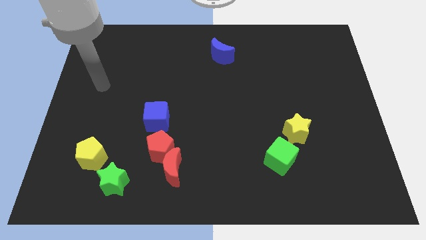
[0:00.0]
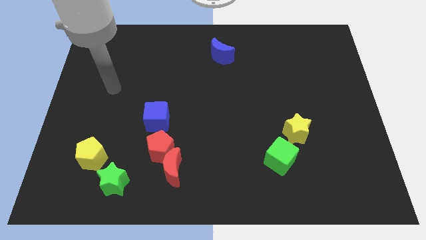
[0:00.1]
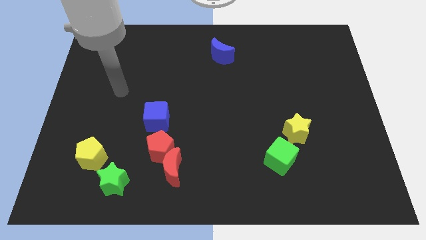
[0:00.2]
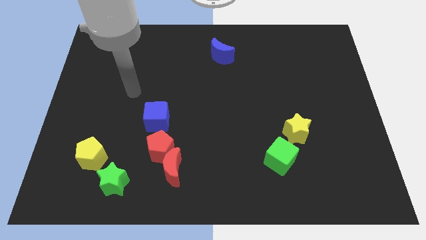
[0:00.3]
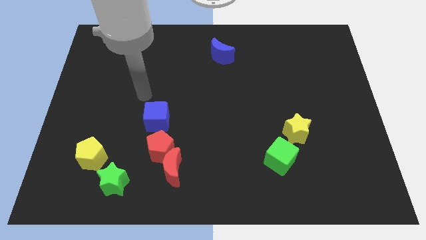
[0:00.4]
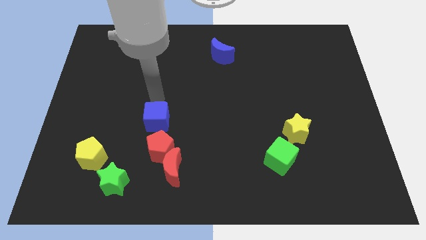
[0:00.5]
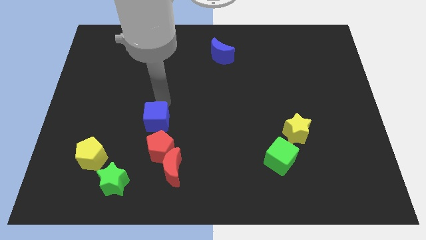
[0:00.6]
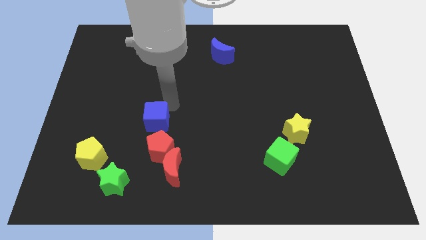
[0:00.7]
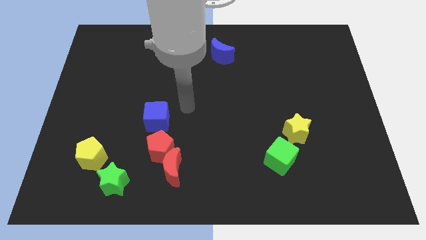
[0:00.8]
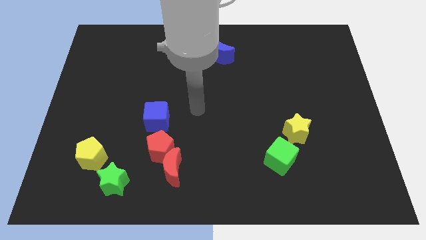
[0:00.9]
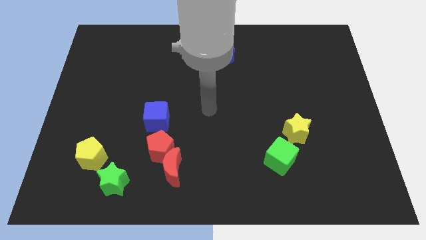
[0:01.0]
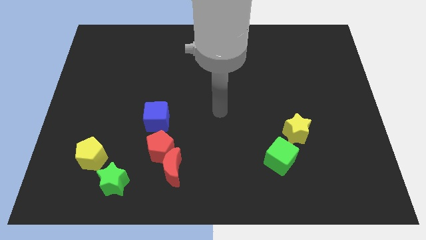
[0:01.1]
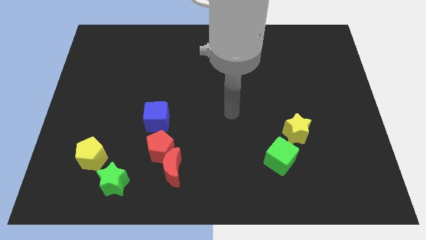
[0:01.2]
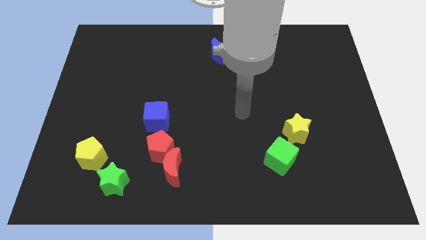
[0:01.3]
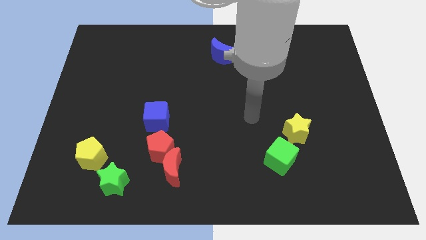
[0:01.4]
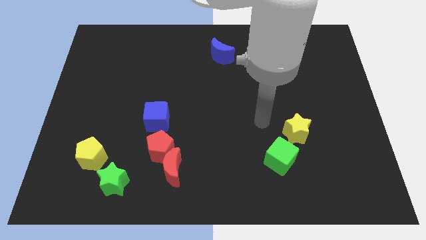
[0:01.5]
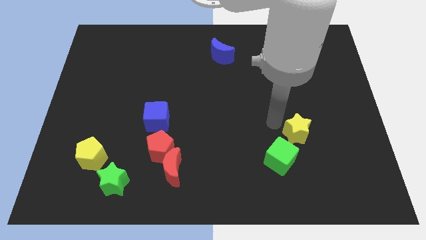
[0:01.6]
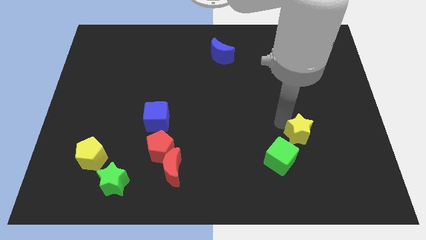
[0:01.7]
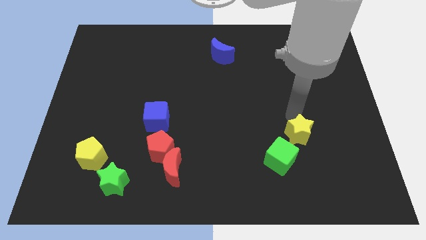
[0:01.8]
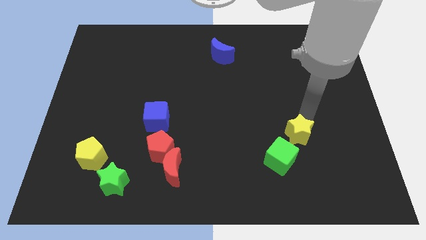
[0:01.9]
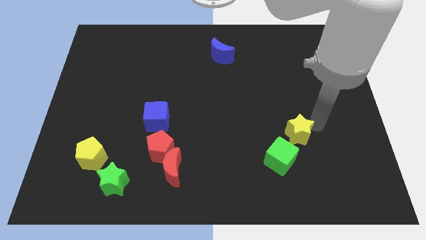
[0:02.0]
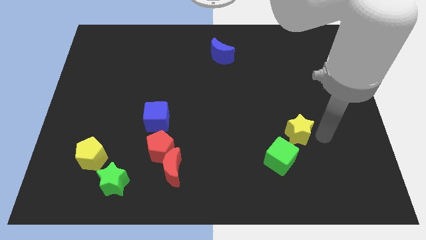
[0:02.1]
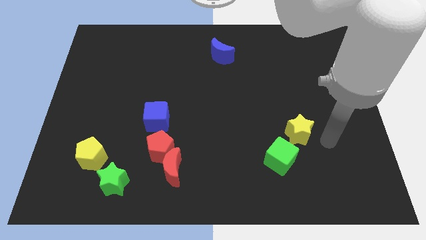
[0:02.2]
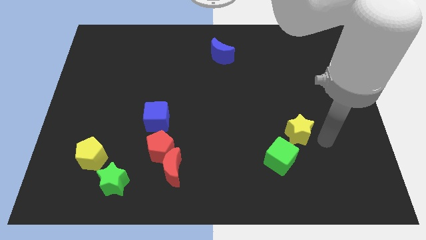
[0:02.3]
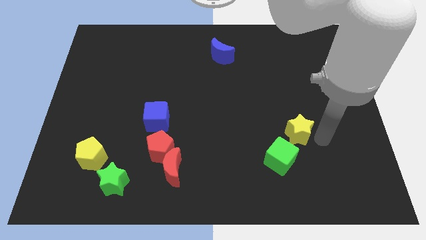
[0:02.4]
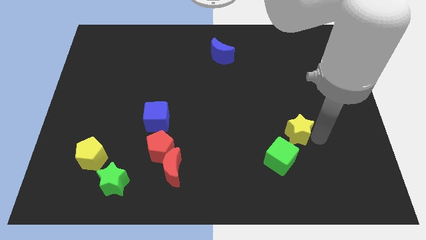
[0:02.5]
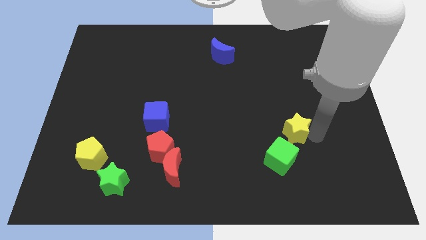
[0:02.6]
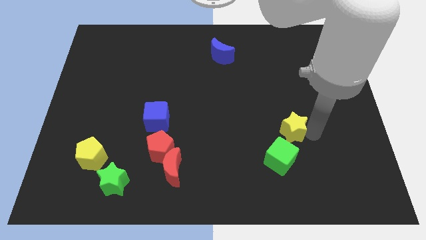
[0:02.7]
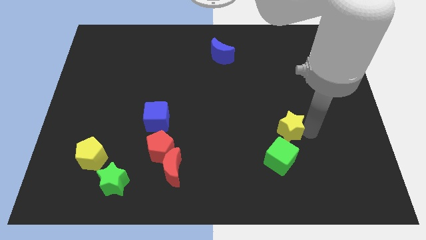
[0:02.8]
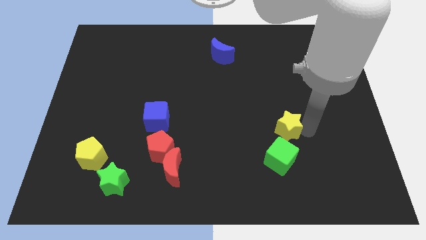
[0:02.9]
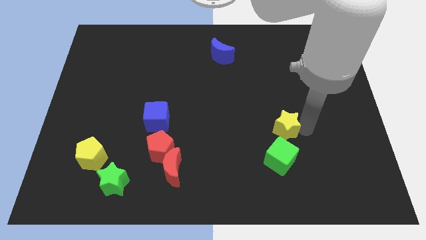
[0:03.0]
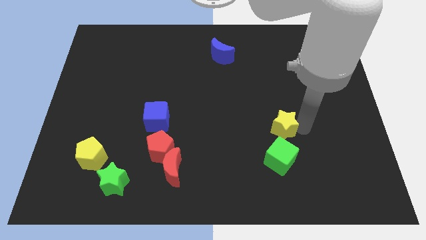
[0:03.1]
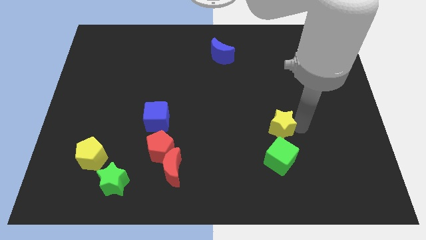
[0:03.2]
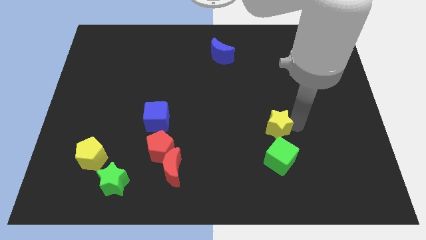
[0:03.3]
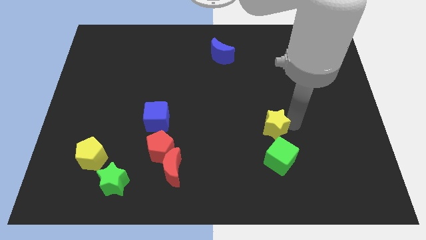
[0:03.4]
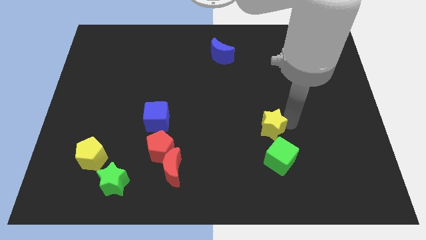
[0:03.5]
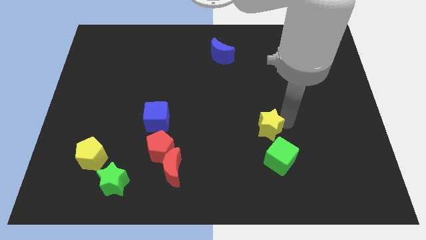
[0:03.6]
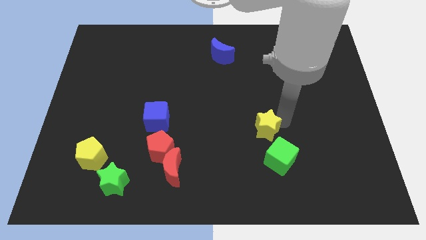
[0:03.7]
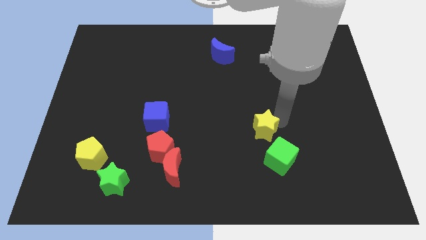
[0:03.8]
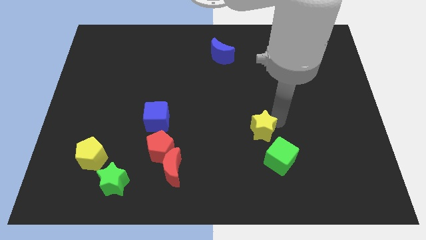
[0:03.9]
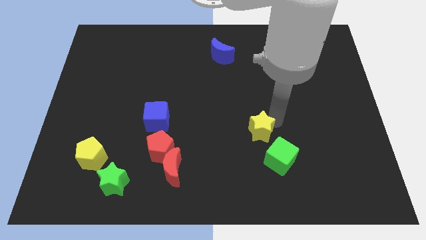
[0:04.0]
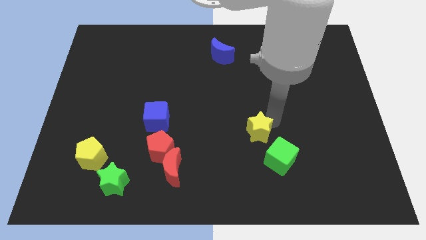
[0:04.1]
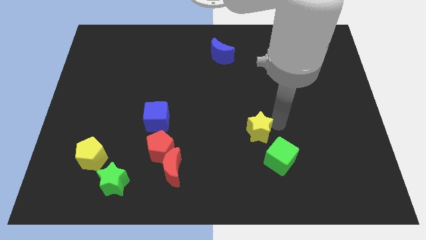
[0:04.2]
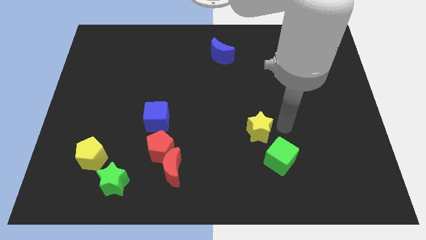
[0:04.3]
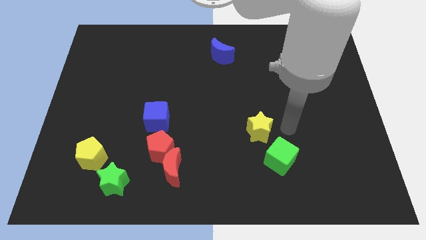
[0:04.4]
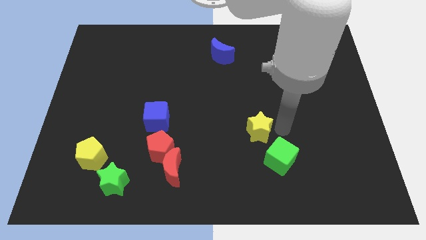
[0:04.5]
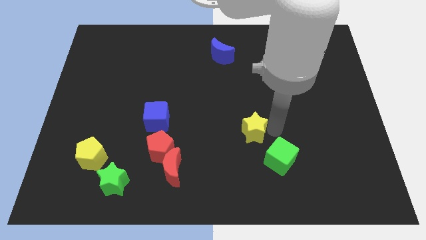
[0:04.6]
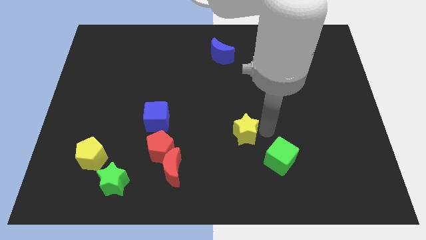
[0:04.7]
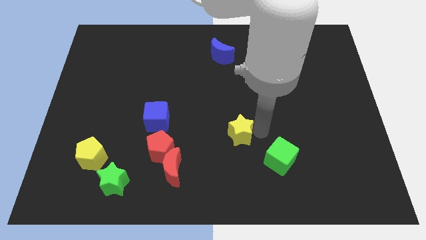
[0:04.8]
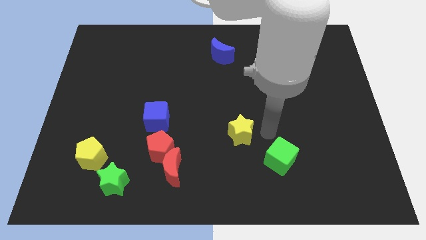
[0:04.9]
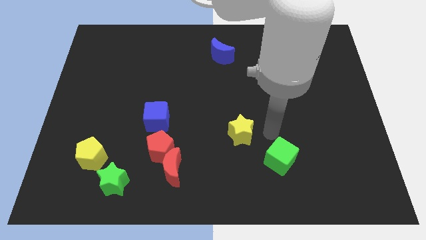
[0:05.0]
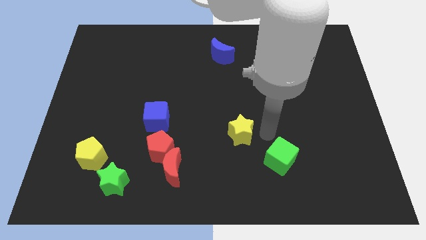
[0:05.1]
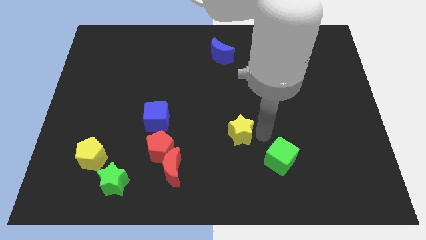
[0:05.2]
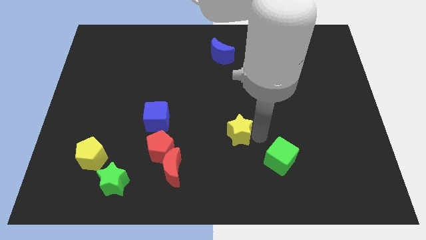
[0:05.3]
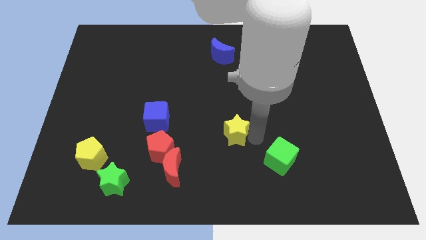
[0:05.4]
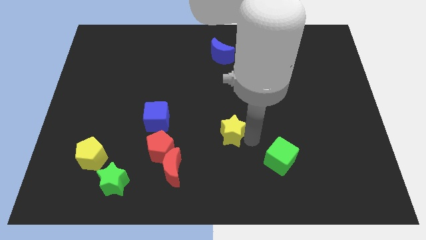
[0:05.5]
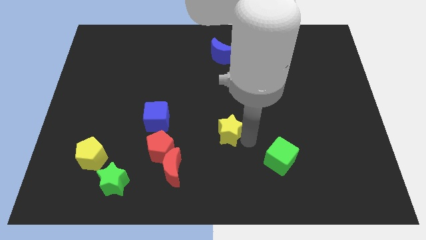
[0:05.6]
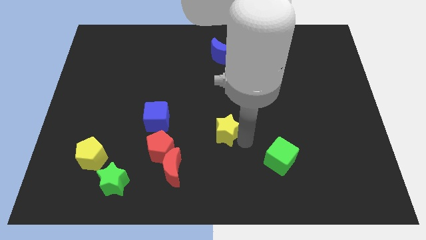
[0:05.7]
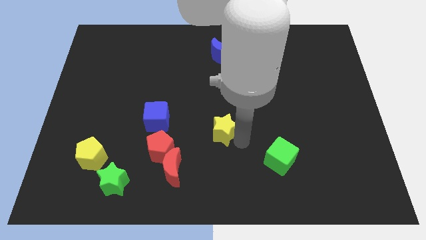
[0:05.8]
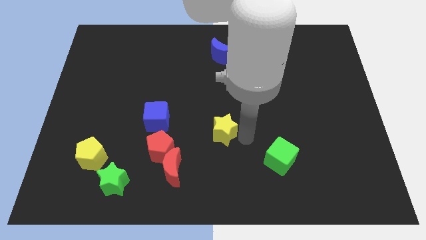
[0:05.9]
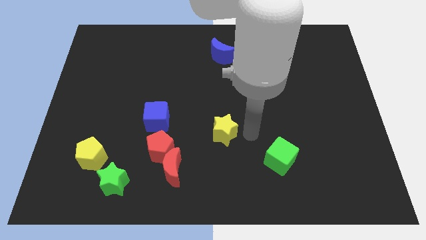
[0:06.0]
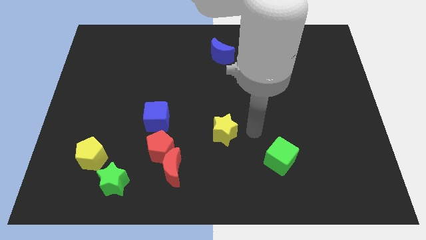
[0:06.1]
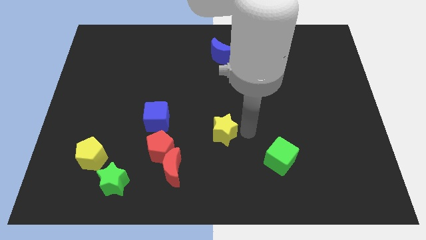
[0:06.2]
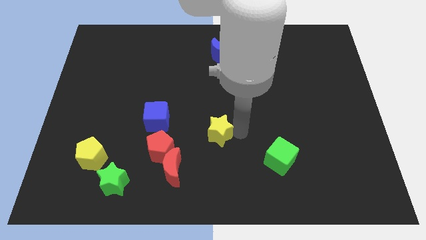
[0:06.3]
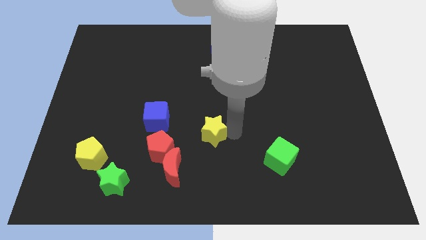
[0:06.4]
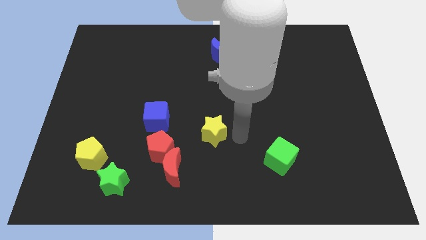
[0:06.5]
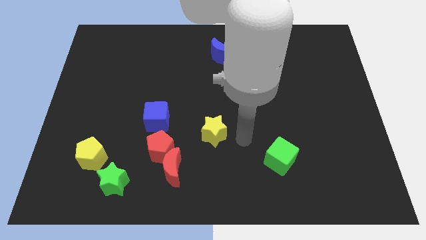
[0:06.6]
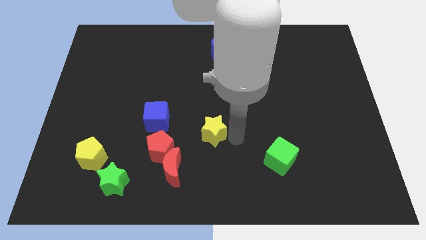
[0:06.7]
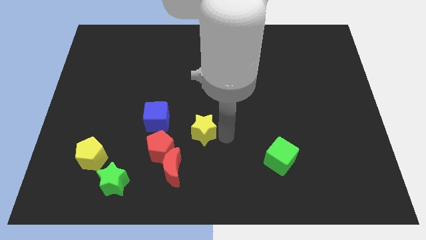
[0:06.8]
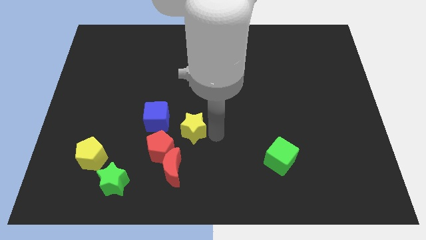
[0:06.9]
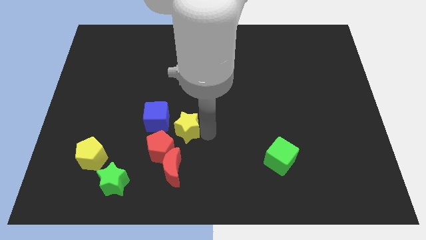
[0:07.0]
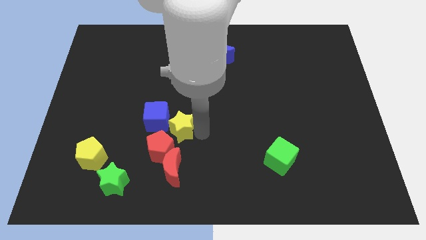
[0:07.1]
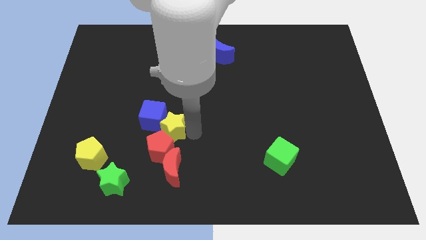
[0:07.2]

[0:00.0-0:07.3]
slide the yellow star towards the blue cube
